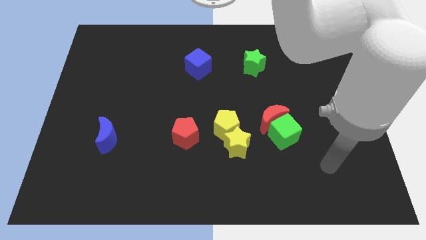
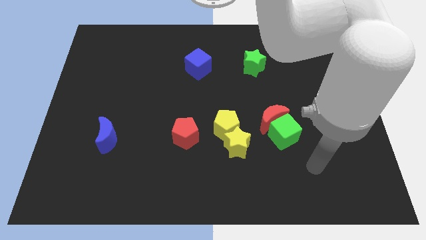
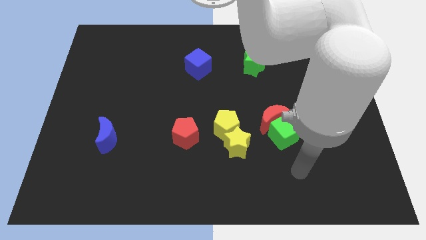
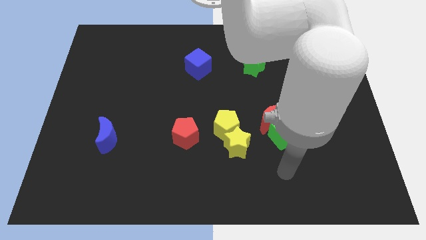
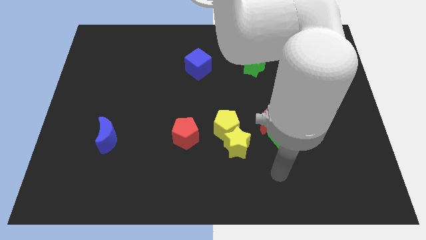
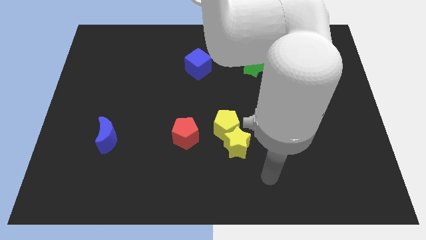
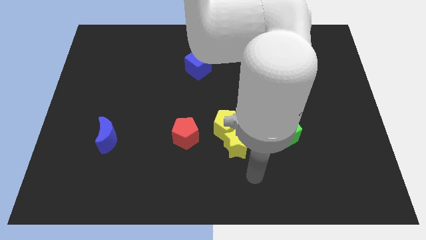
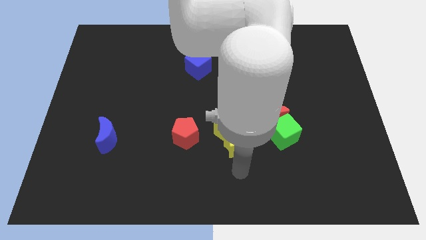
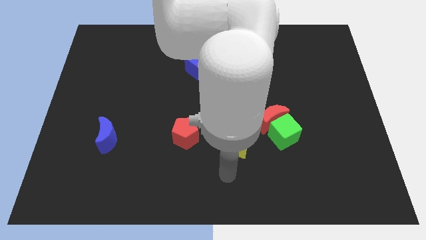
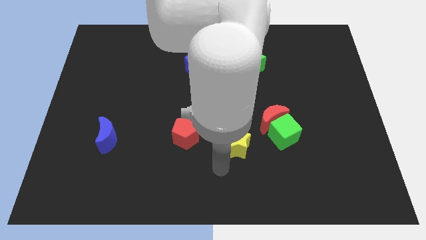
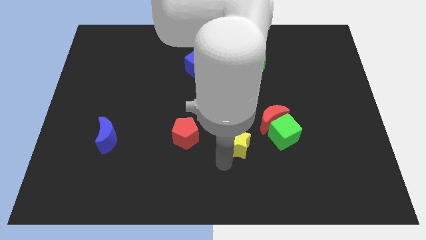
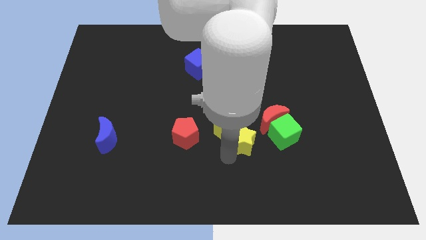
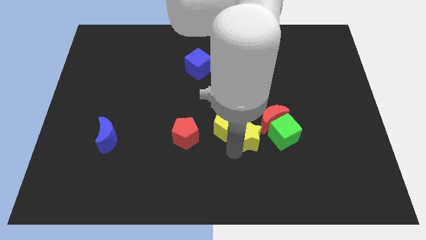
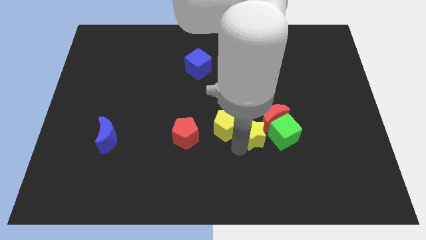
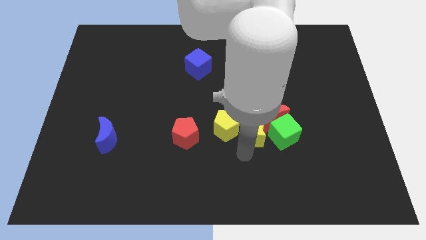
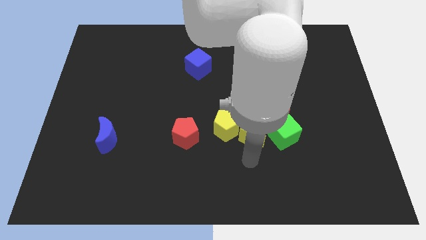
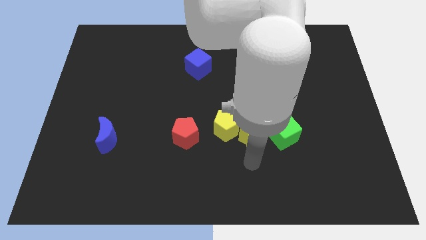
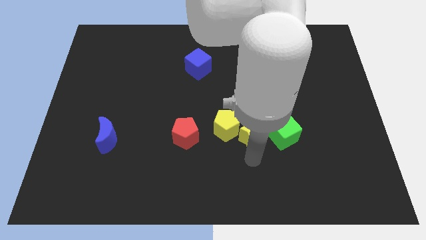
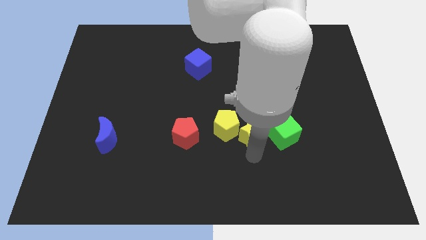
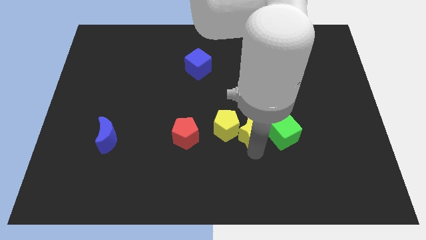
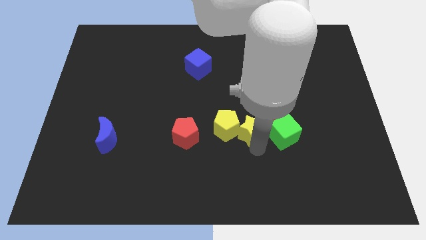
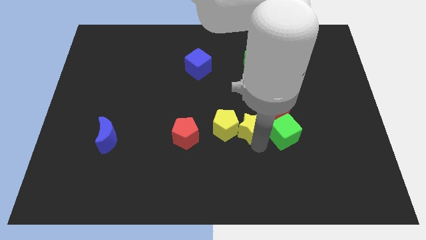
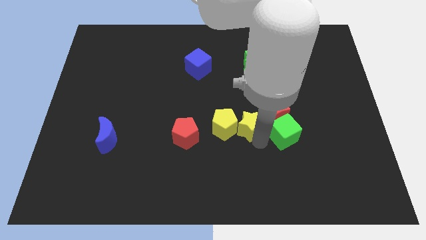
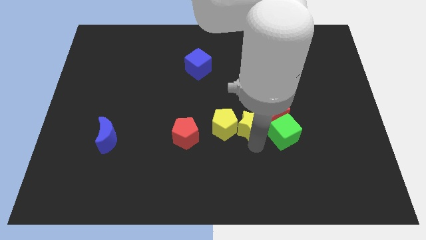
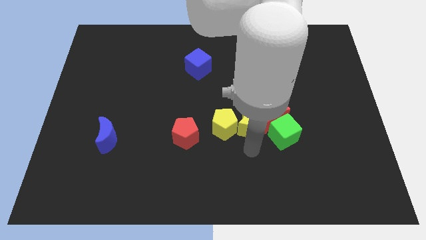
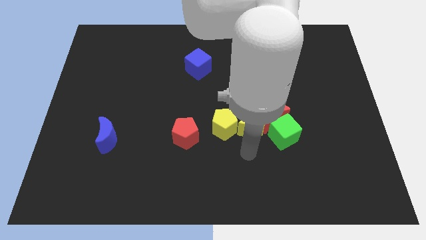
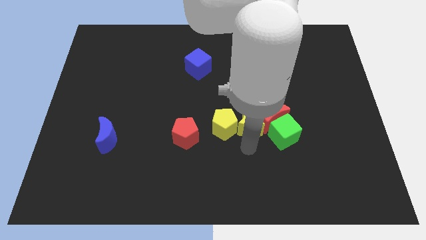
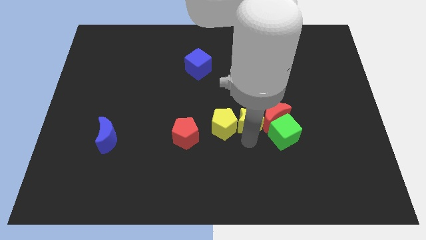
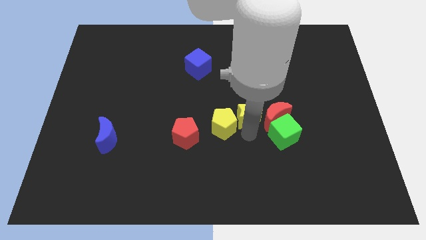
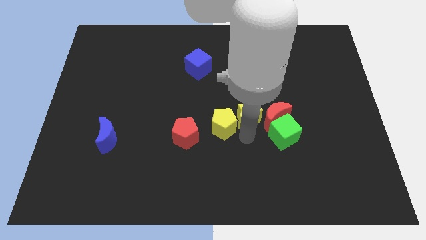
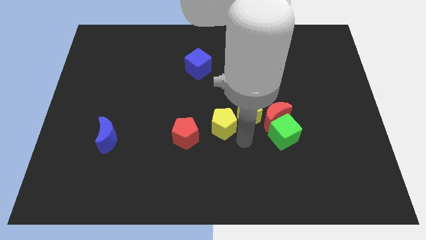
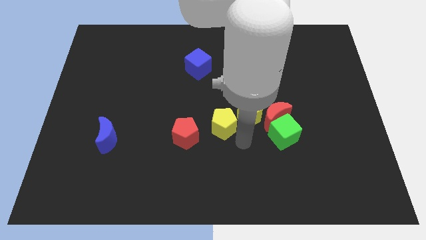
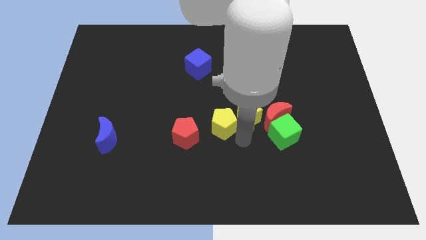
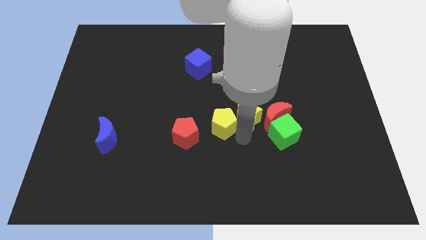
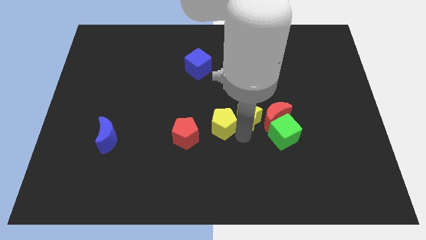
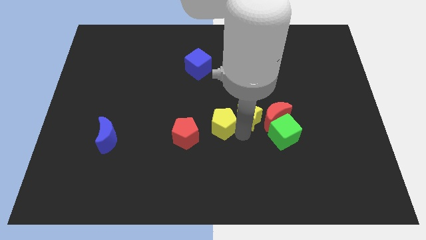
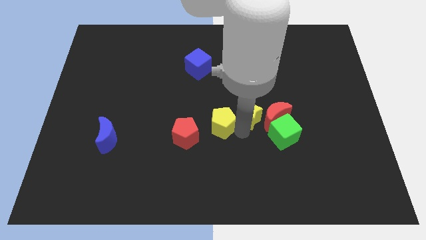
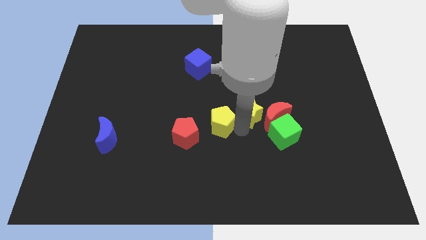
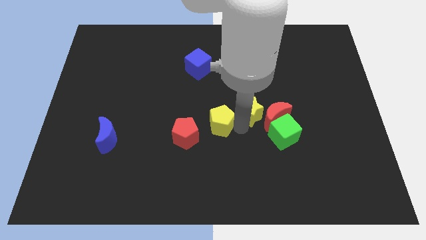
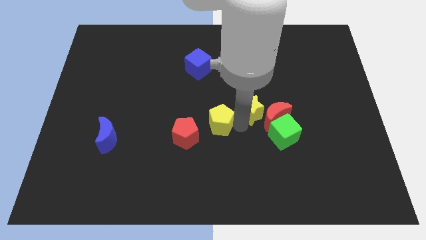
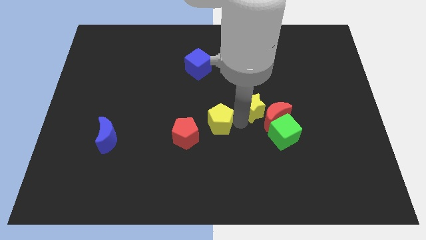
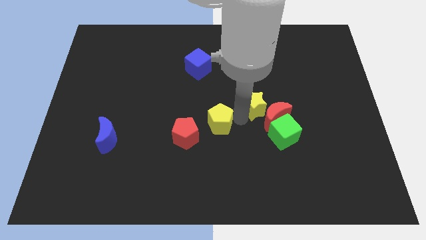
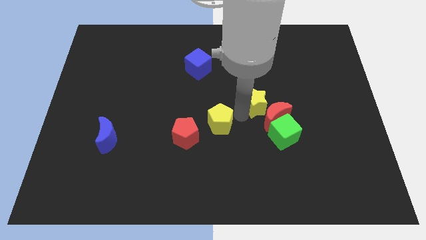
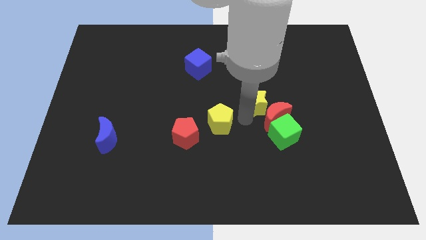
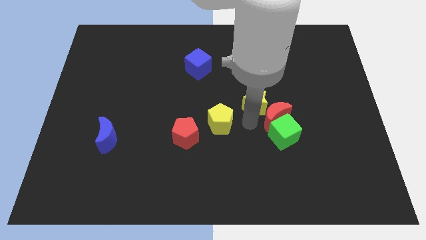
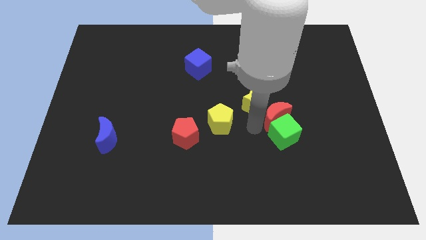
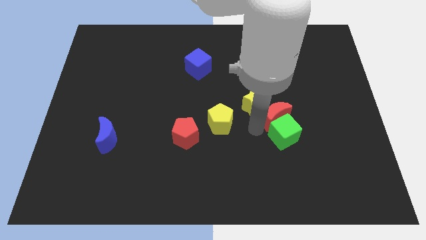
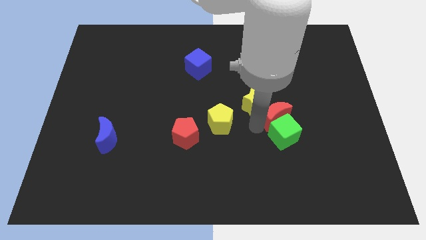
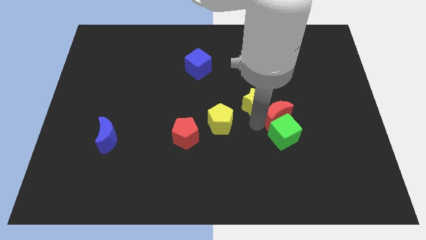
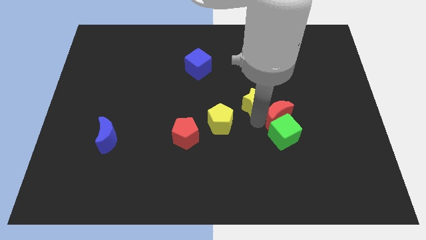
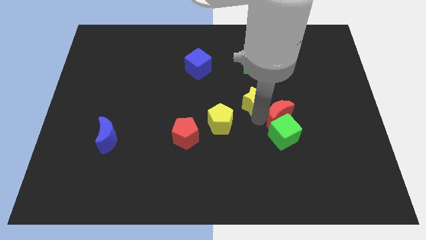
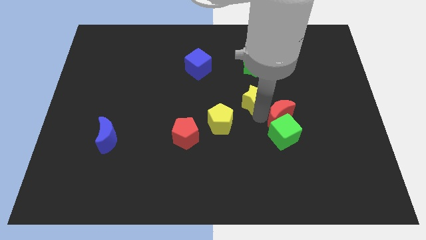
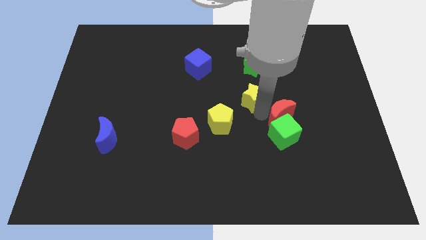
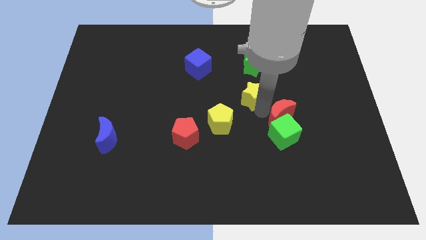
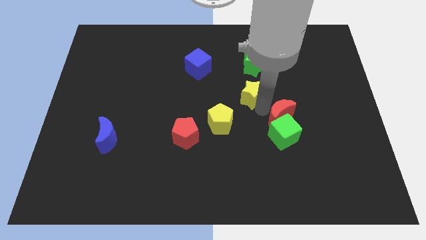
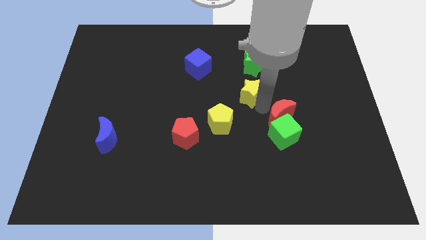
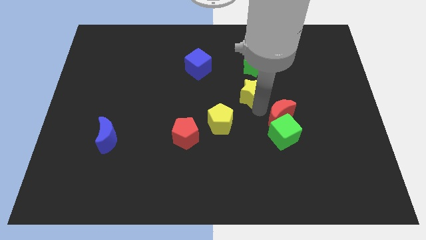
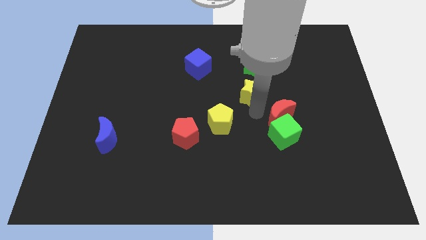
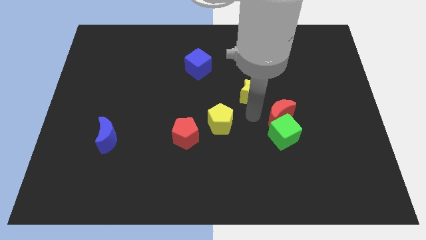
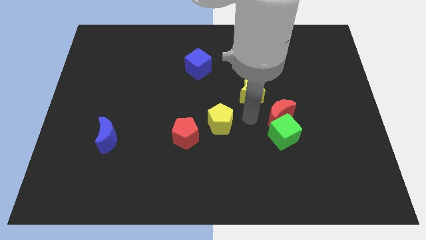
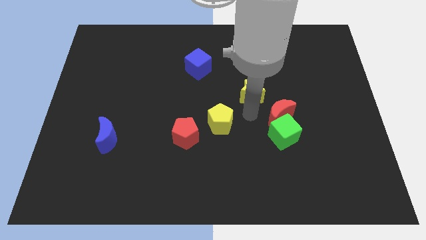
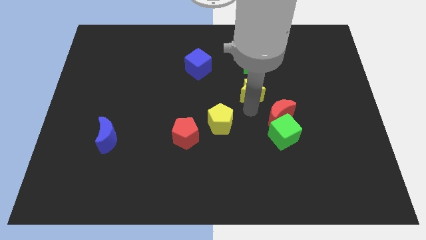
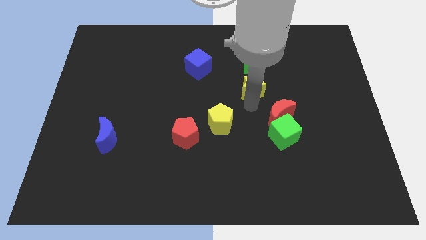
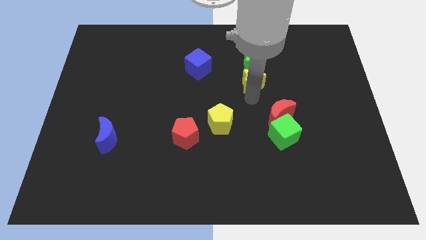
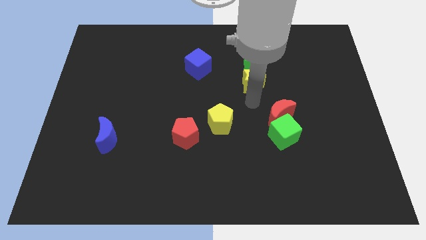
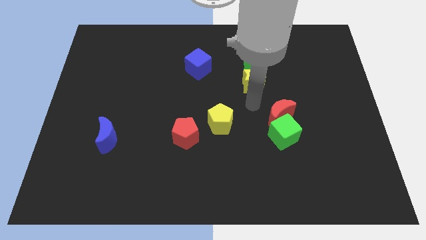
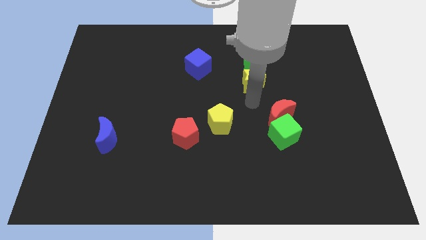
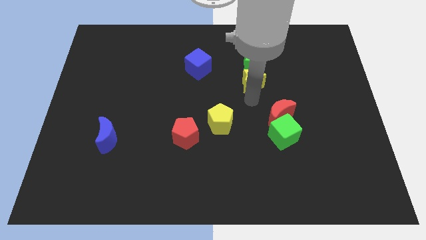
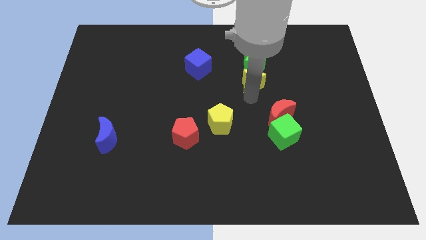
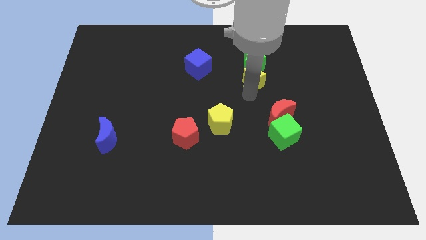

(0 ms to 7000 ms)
slide the yellow star next to the green star

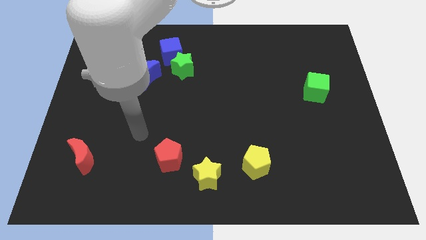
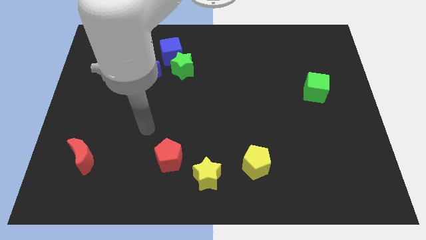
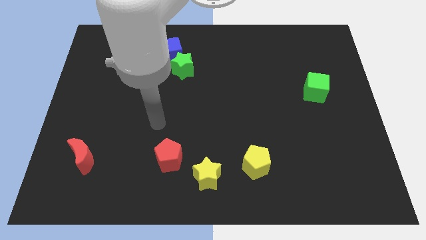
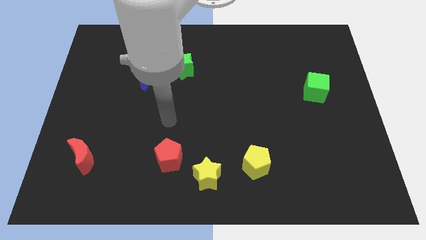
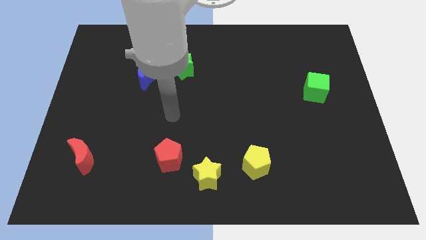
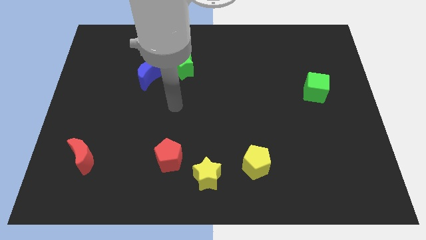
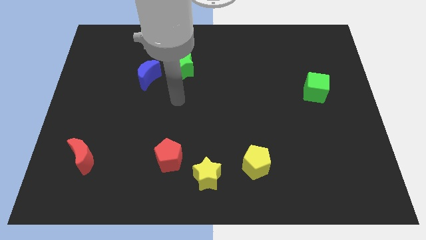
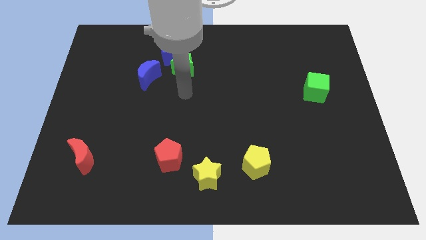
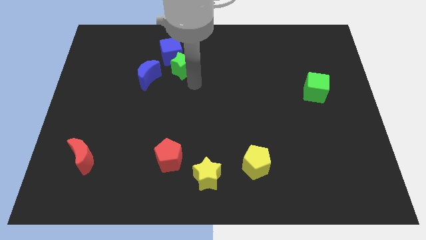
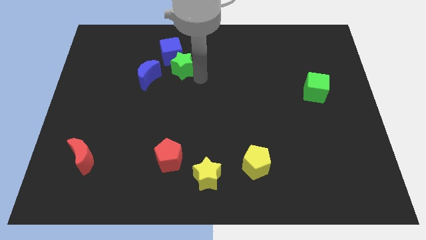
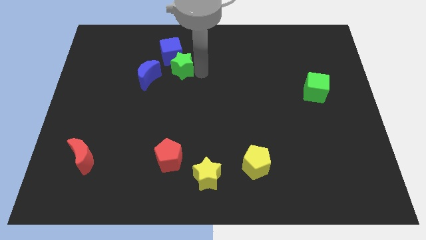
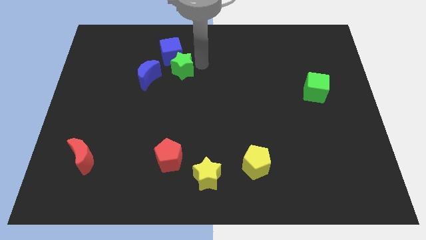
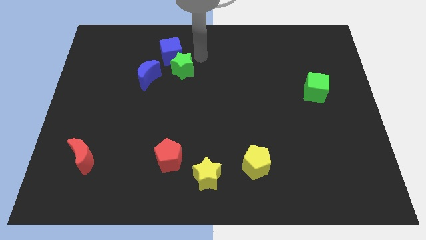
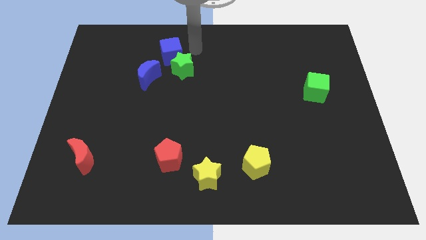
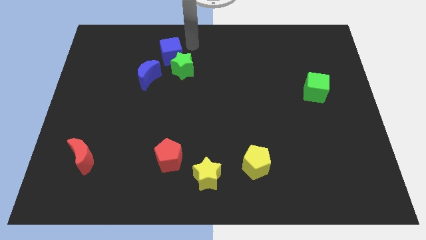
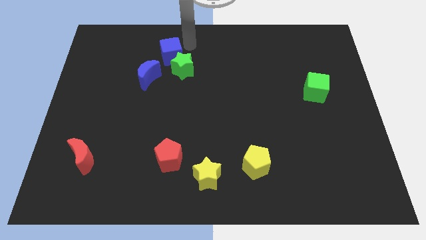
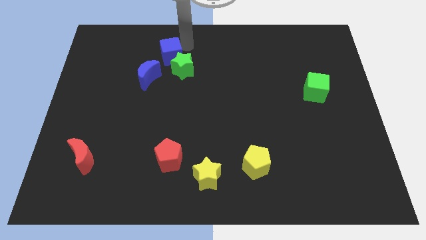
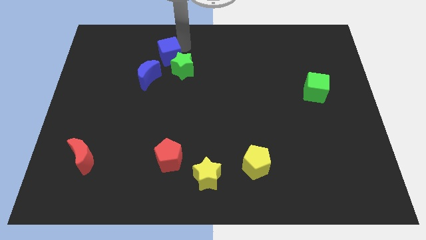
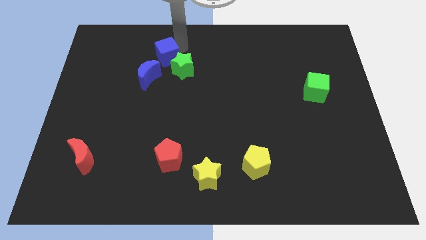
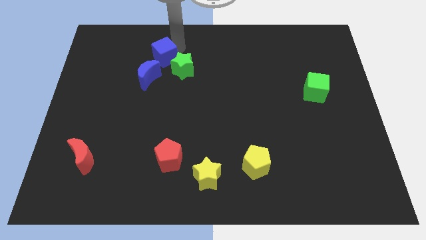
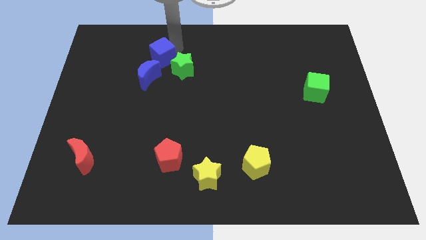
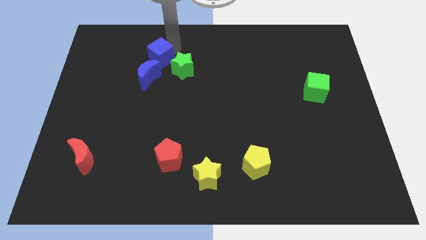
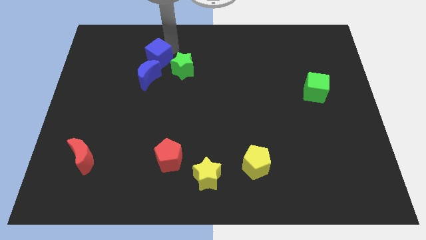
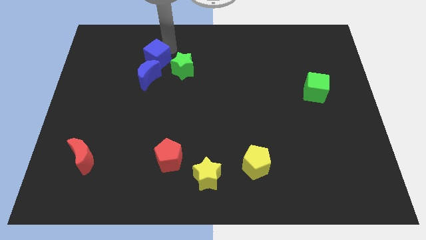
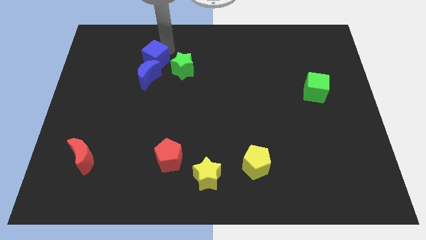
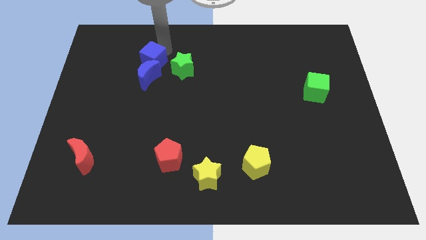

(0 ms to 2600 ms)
put the blue cube towards the blue moon
